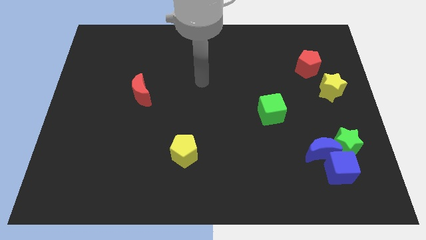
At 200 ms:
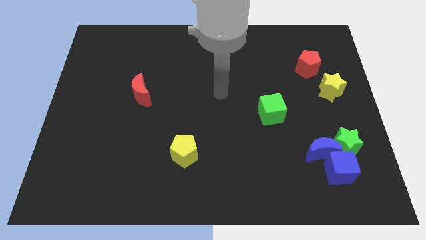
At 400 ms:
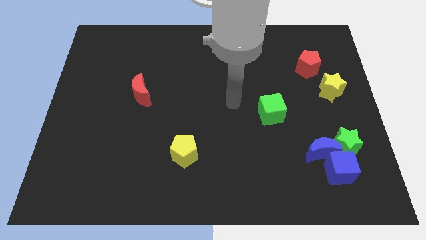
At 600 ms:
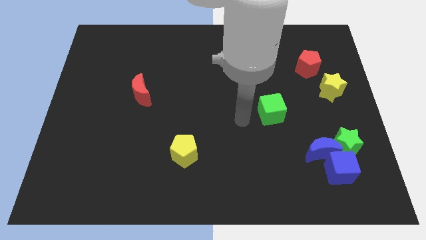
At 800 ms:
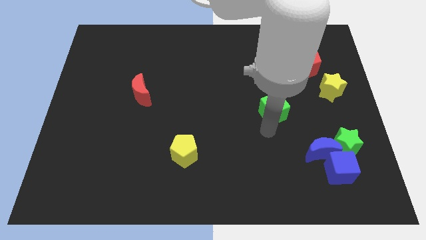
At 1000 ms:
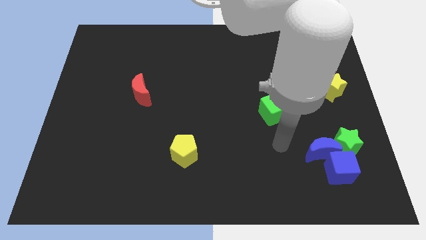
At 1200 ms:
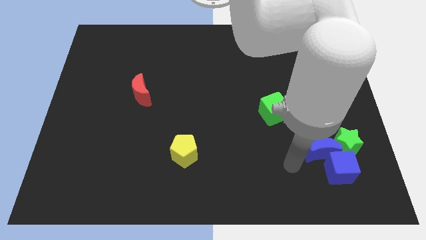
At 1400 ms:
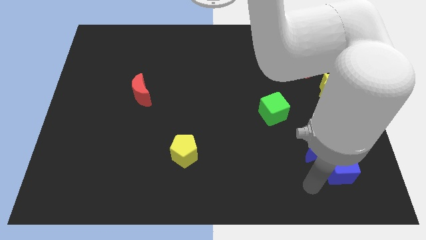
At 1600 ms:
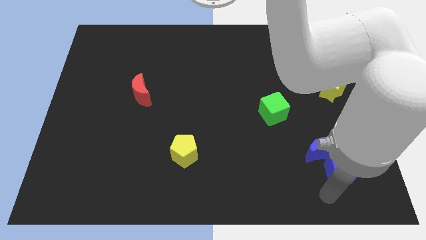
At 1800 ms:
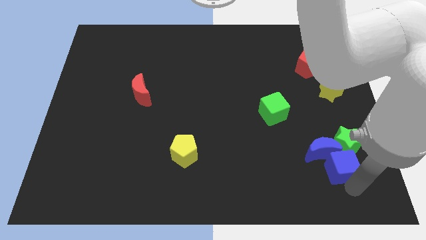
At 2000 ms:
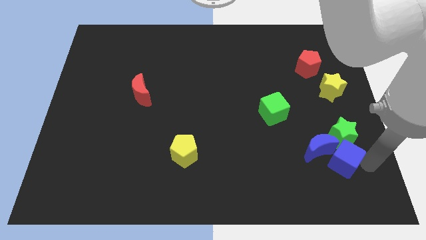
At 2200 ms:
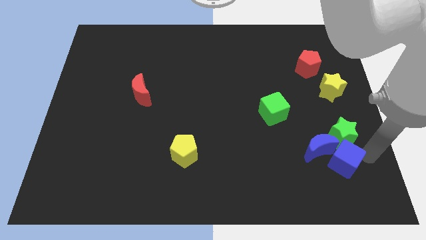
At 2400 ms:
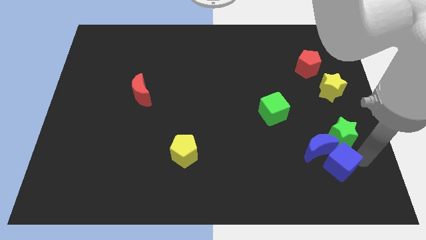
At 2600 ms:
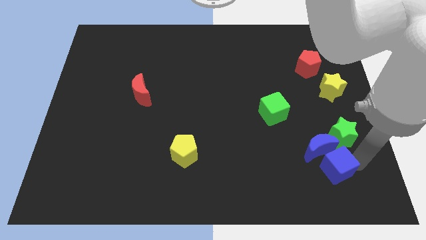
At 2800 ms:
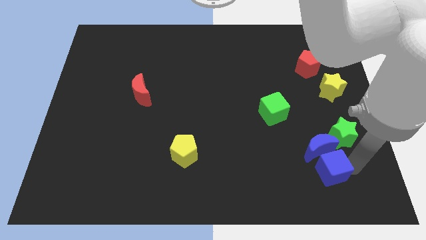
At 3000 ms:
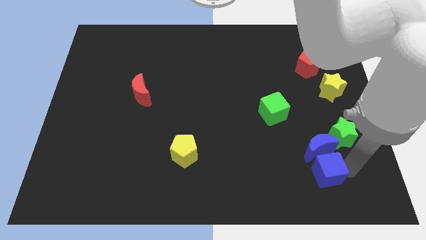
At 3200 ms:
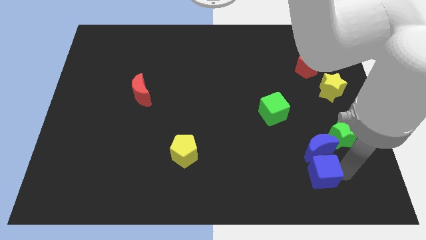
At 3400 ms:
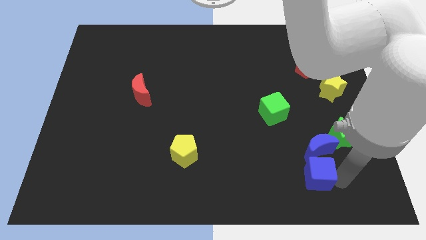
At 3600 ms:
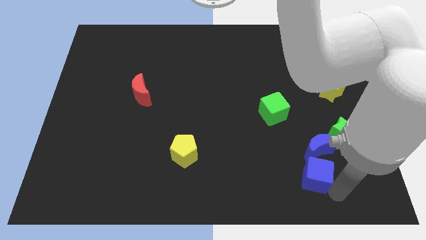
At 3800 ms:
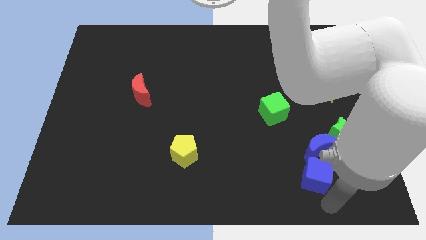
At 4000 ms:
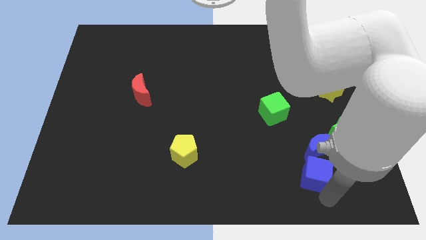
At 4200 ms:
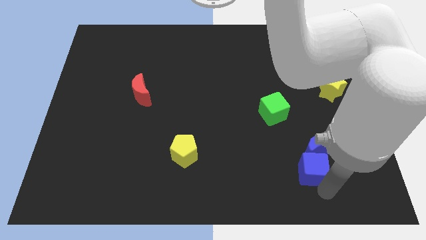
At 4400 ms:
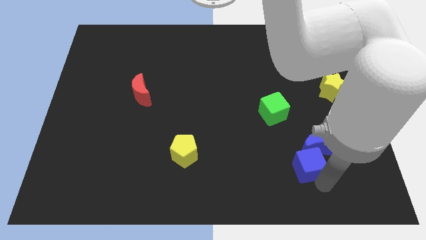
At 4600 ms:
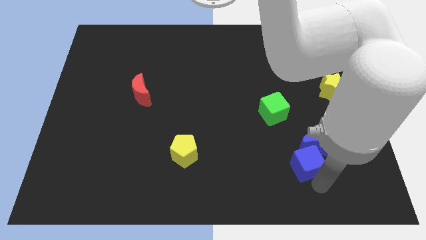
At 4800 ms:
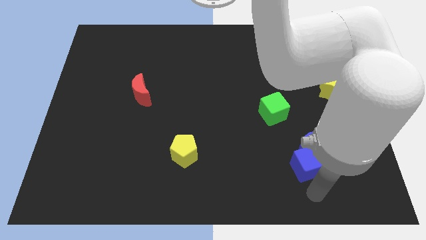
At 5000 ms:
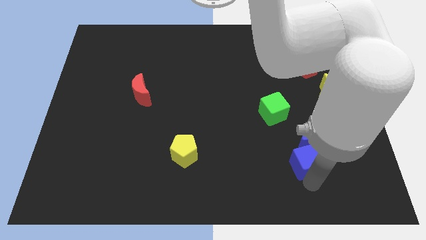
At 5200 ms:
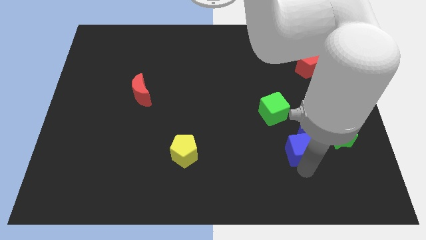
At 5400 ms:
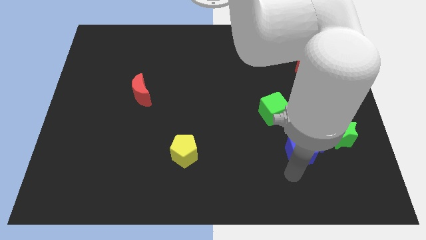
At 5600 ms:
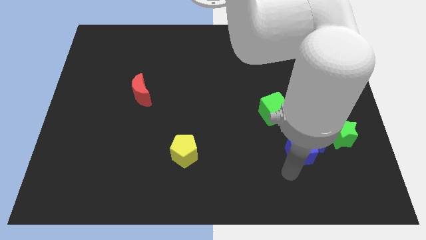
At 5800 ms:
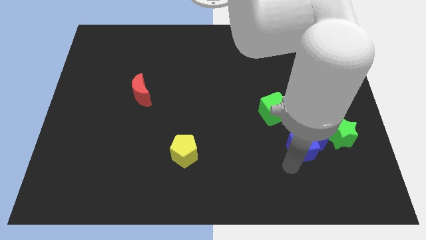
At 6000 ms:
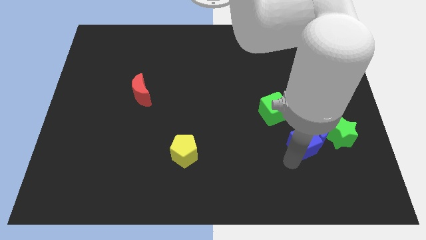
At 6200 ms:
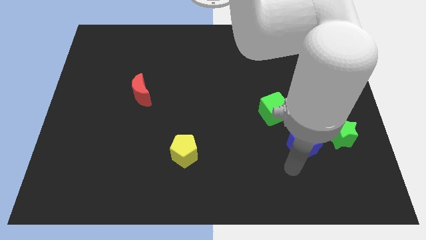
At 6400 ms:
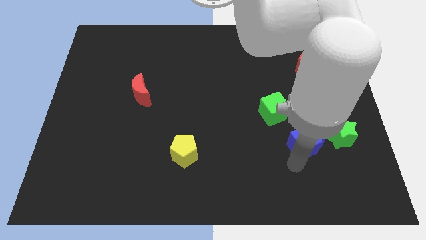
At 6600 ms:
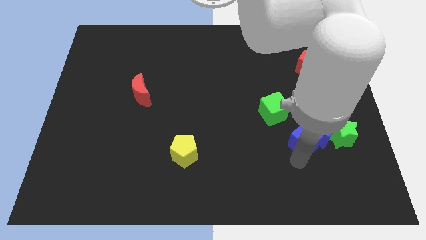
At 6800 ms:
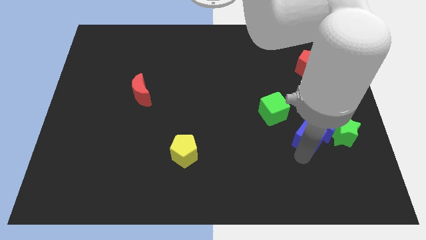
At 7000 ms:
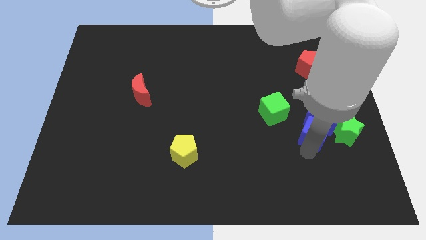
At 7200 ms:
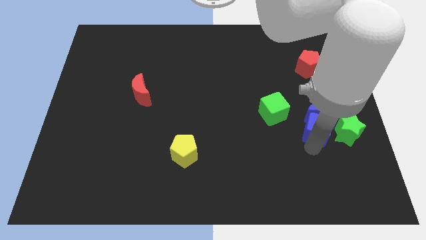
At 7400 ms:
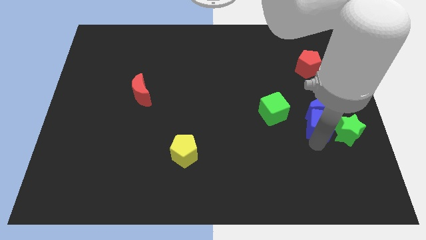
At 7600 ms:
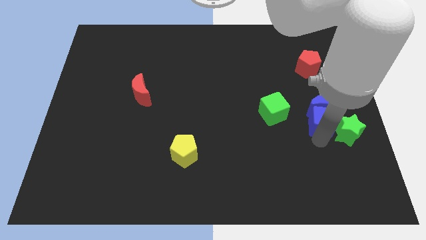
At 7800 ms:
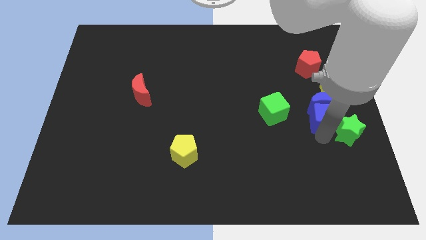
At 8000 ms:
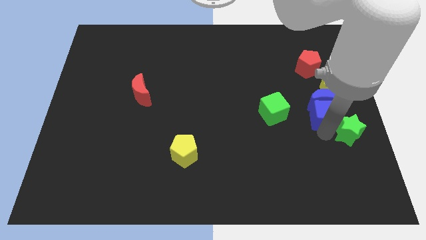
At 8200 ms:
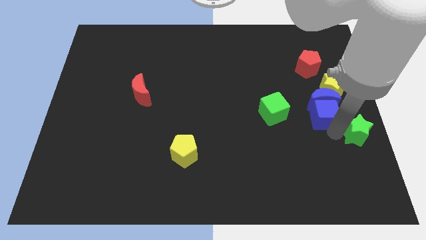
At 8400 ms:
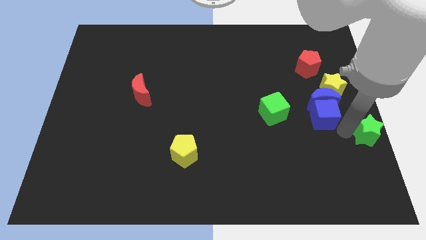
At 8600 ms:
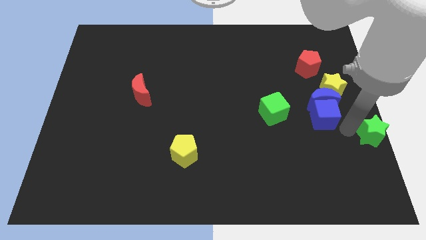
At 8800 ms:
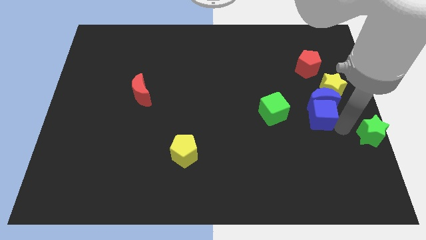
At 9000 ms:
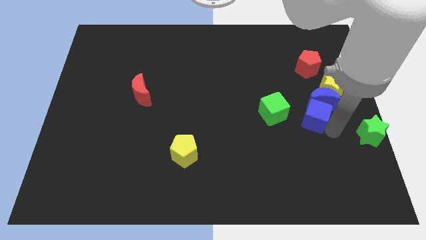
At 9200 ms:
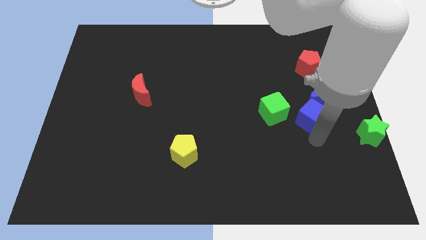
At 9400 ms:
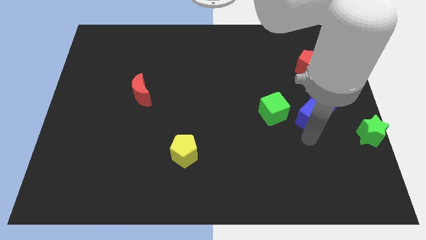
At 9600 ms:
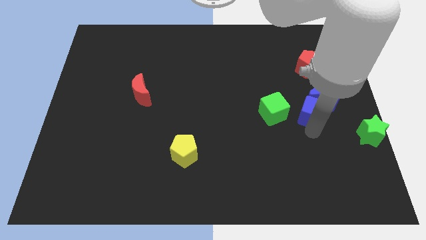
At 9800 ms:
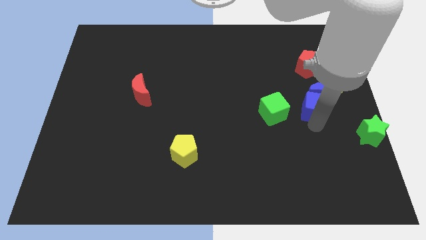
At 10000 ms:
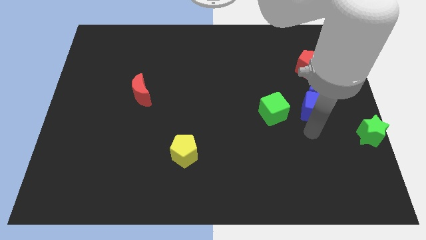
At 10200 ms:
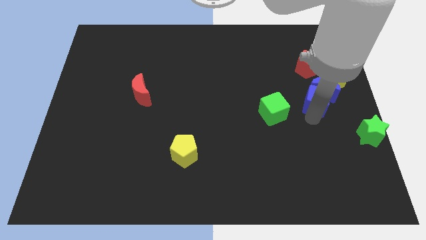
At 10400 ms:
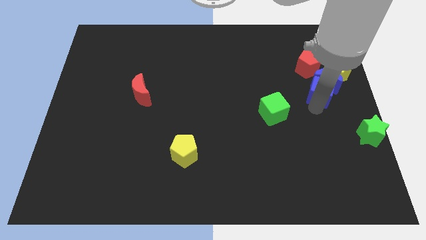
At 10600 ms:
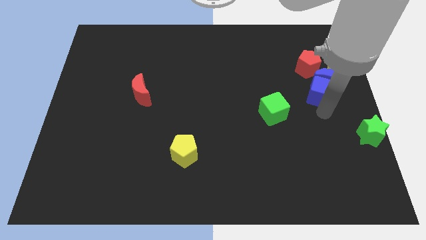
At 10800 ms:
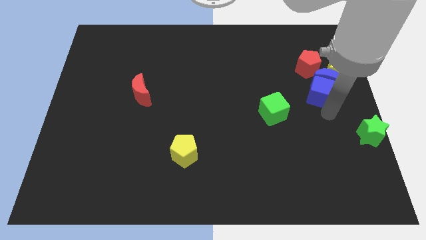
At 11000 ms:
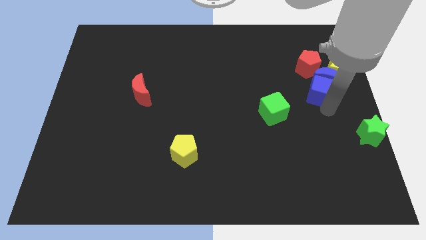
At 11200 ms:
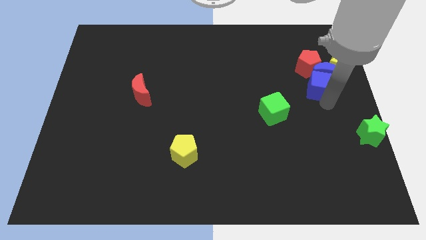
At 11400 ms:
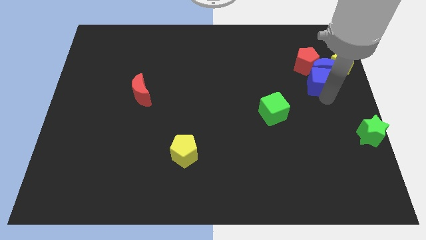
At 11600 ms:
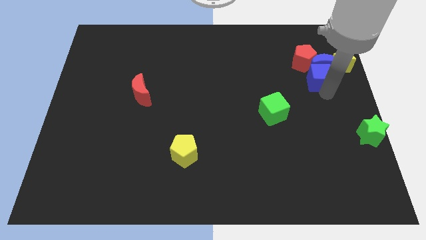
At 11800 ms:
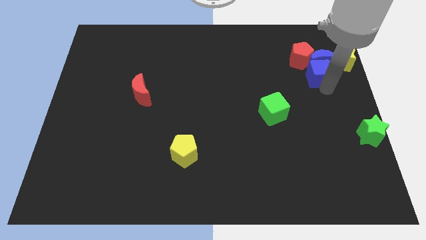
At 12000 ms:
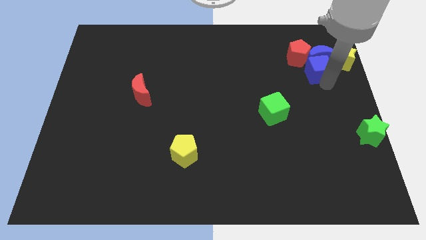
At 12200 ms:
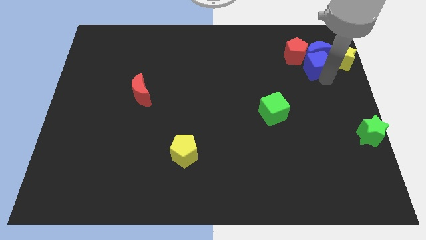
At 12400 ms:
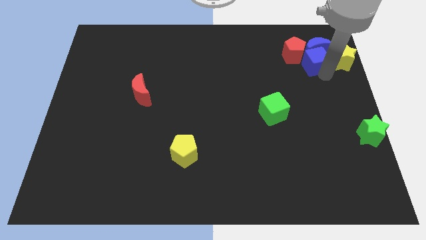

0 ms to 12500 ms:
move the blue cube close to the red pentagon

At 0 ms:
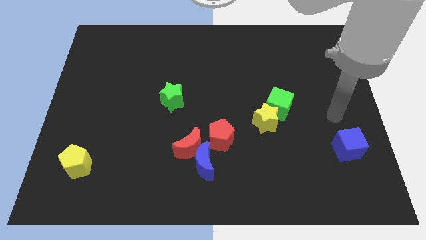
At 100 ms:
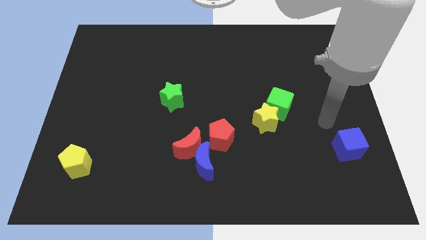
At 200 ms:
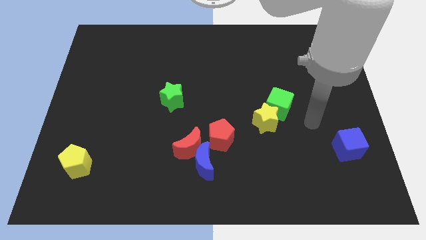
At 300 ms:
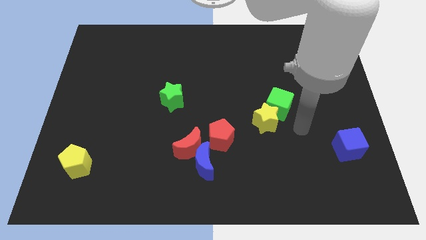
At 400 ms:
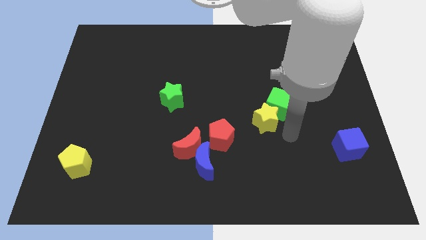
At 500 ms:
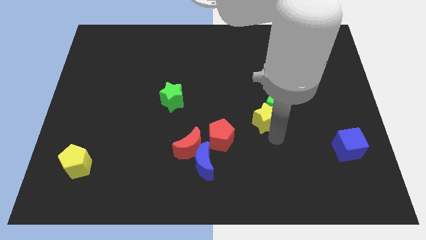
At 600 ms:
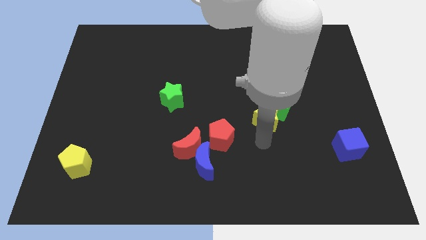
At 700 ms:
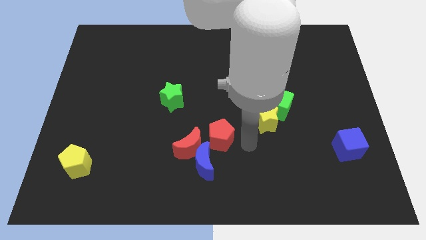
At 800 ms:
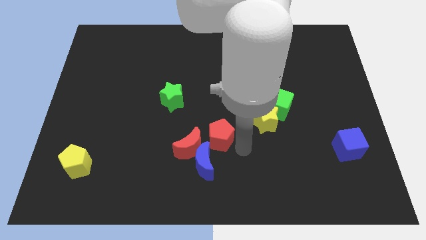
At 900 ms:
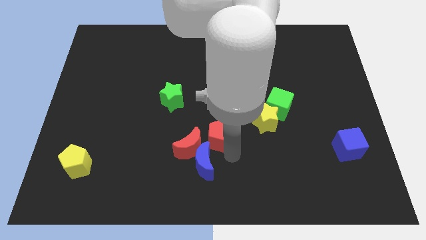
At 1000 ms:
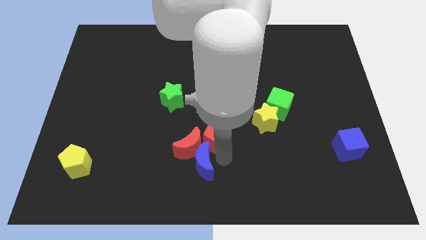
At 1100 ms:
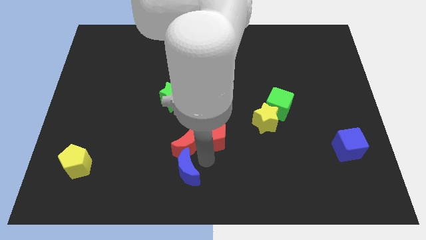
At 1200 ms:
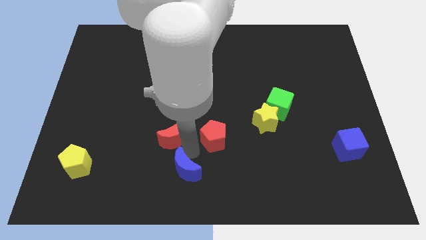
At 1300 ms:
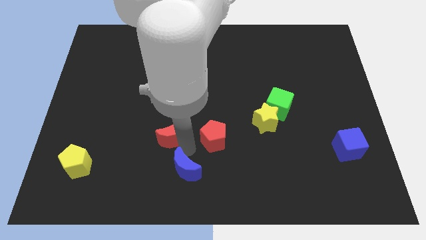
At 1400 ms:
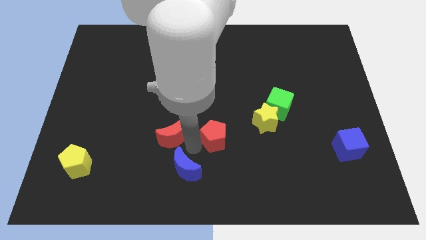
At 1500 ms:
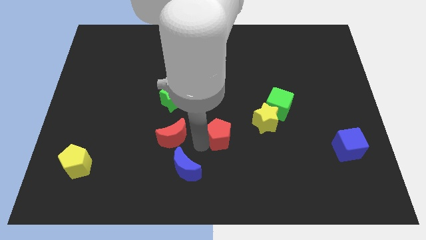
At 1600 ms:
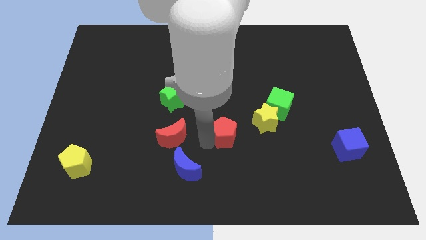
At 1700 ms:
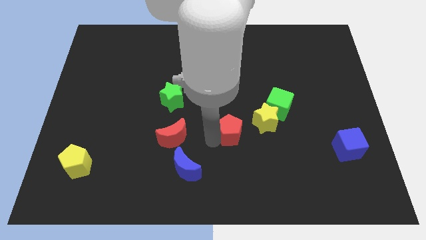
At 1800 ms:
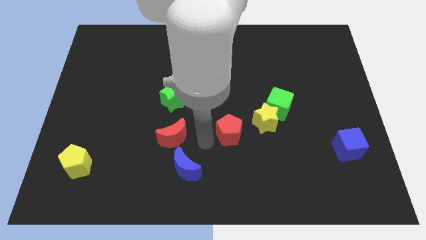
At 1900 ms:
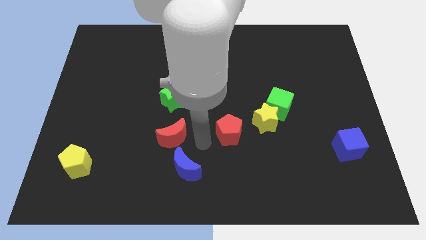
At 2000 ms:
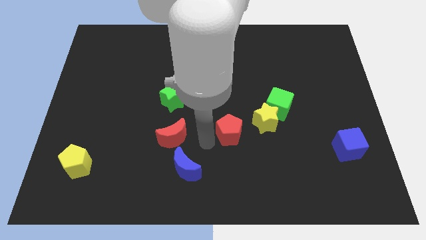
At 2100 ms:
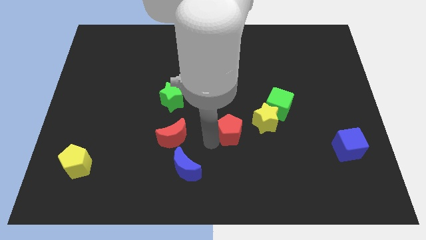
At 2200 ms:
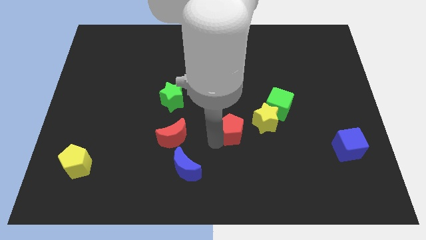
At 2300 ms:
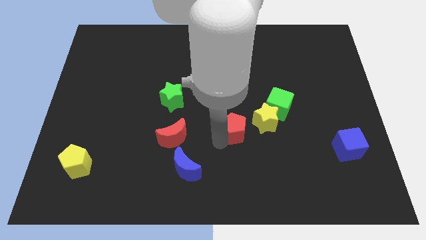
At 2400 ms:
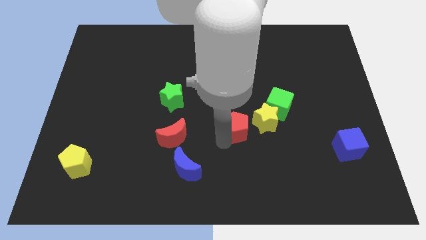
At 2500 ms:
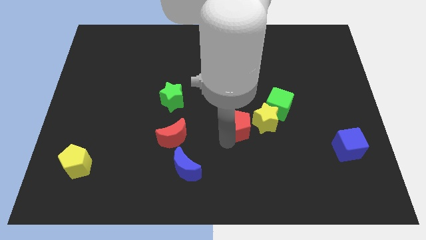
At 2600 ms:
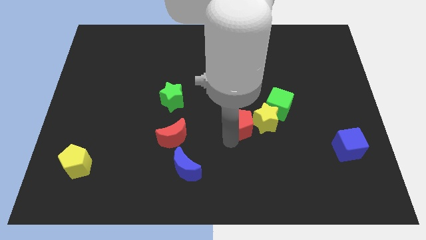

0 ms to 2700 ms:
slide the red pentagon close to the yellow star
